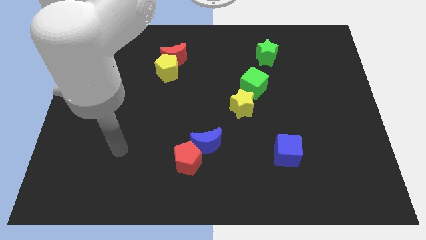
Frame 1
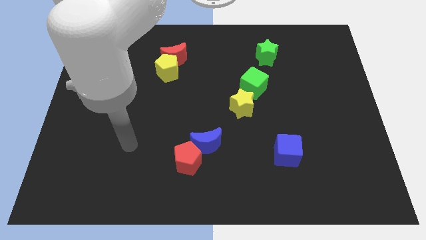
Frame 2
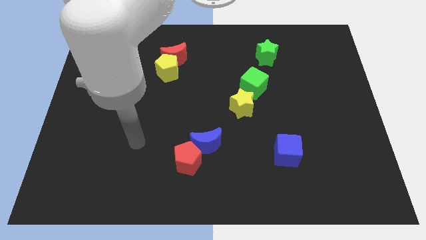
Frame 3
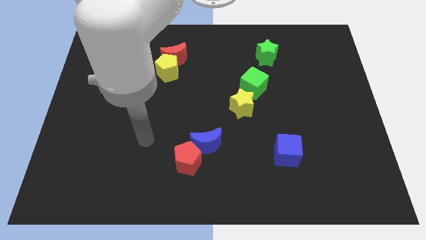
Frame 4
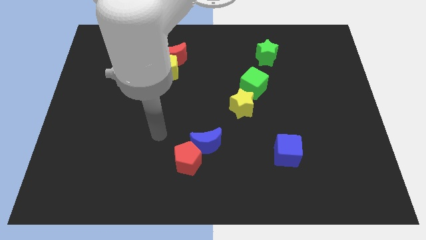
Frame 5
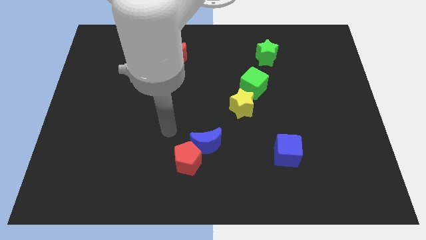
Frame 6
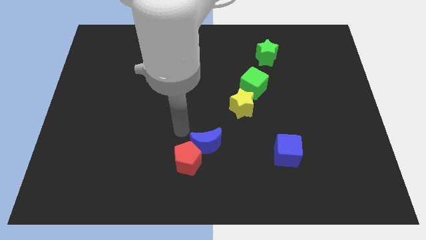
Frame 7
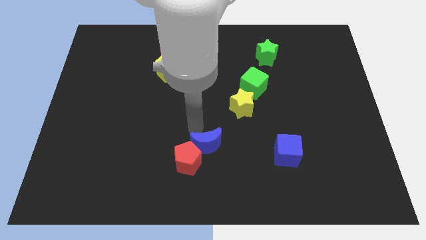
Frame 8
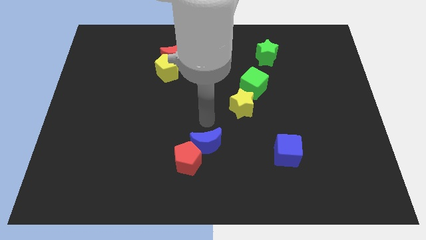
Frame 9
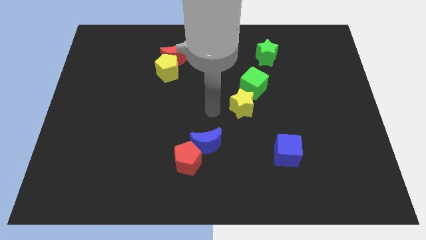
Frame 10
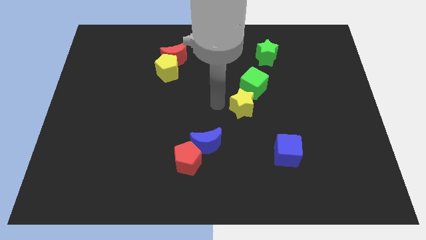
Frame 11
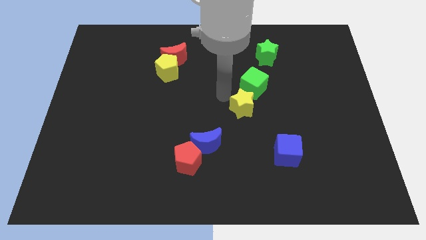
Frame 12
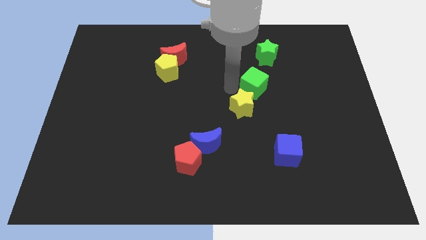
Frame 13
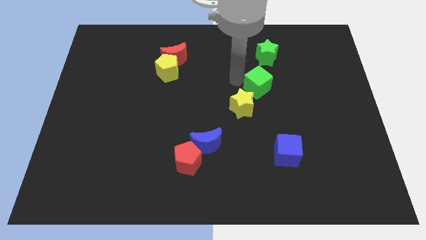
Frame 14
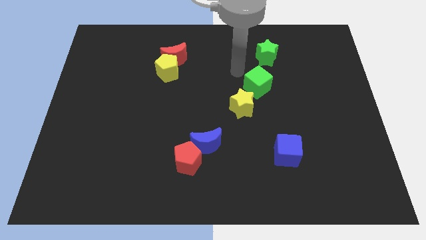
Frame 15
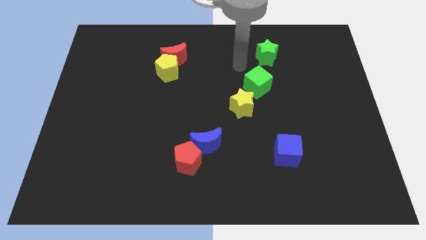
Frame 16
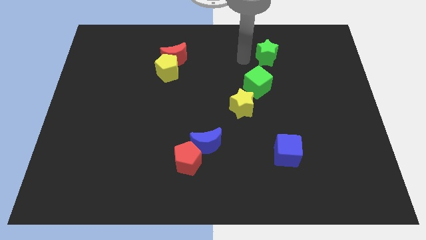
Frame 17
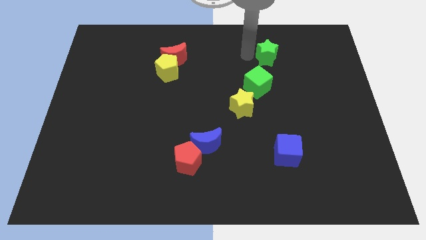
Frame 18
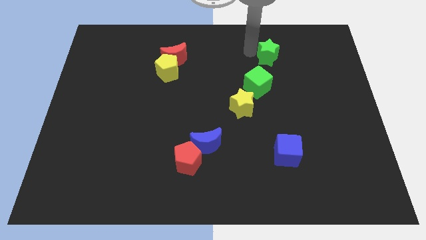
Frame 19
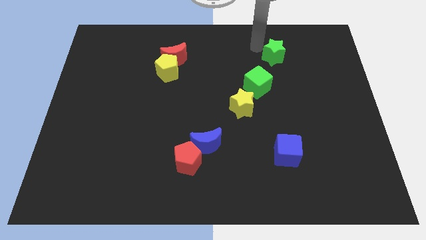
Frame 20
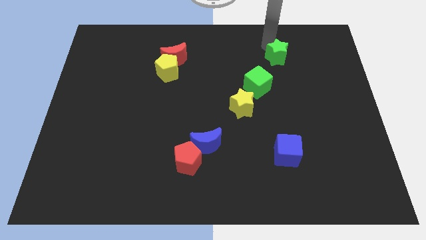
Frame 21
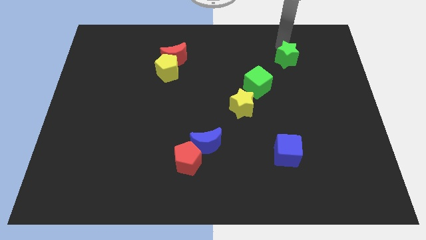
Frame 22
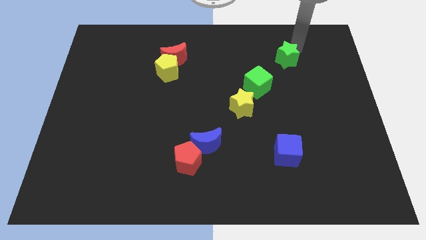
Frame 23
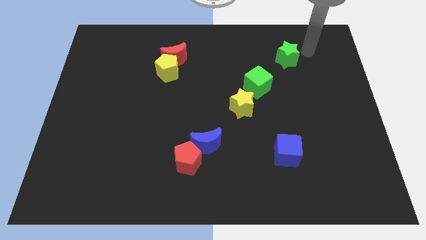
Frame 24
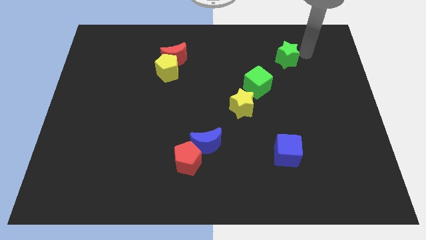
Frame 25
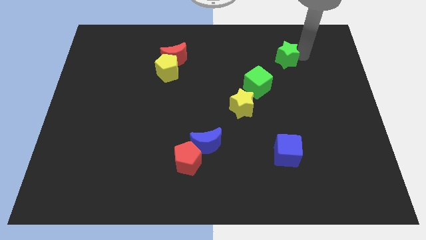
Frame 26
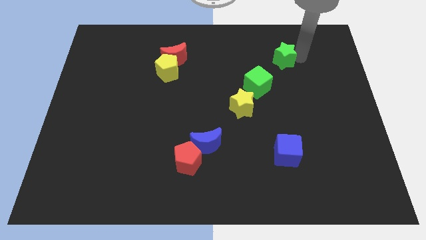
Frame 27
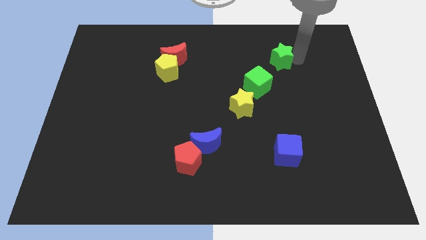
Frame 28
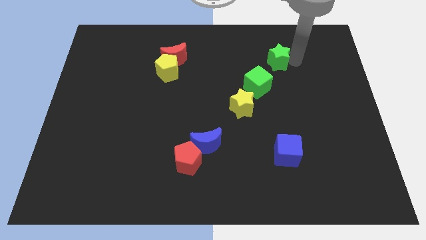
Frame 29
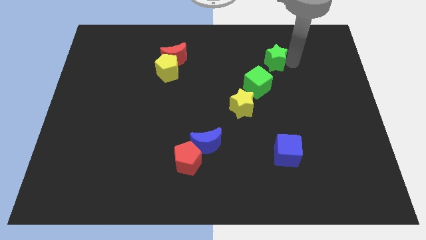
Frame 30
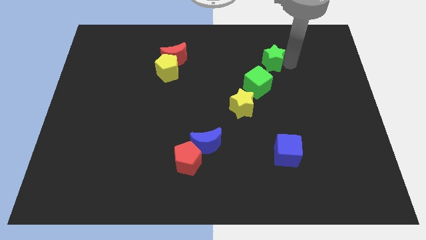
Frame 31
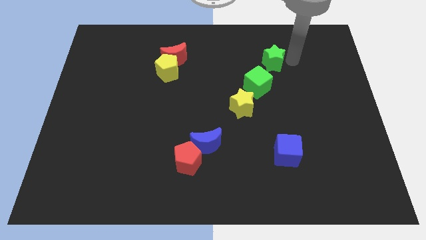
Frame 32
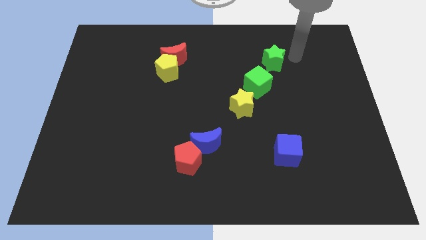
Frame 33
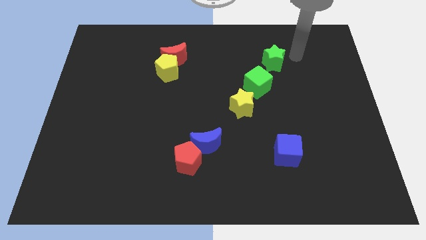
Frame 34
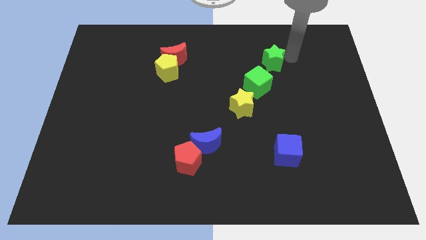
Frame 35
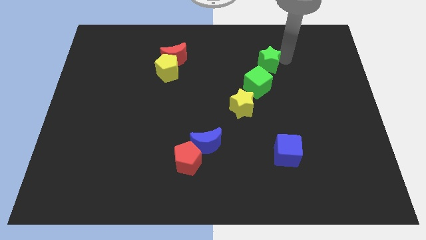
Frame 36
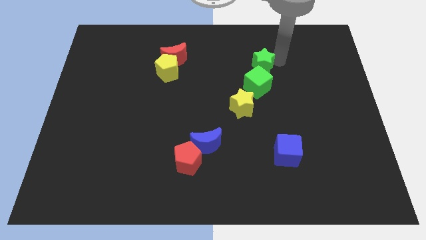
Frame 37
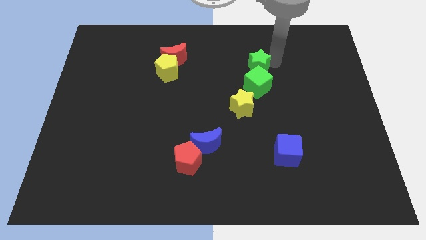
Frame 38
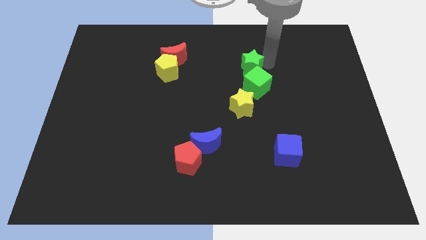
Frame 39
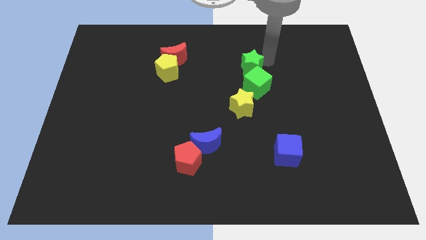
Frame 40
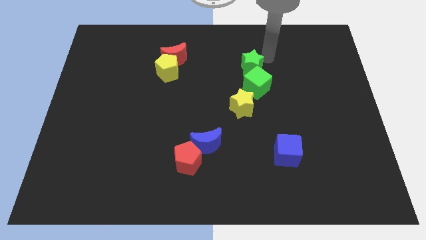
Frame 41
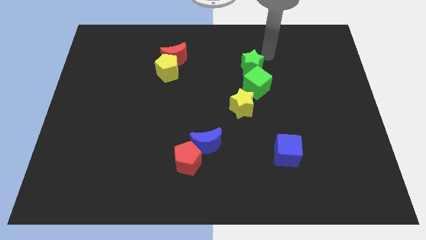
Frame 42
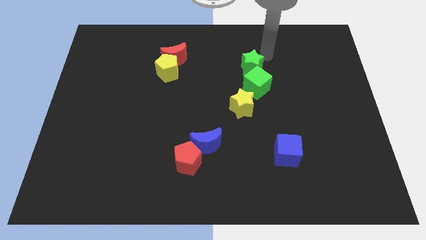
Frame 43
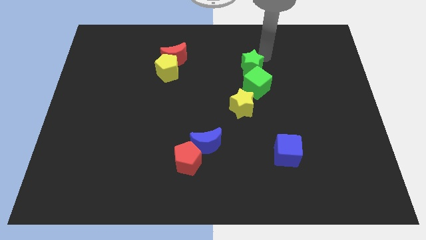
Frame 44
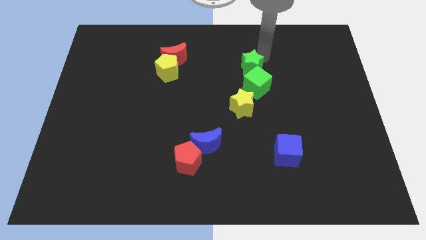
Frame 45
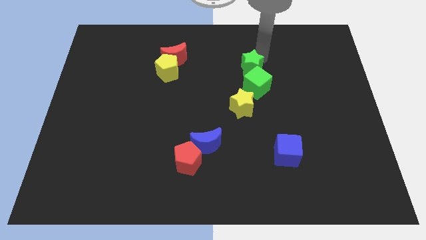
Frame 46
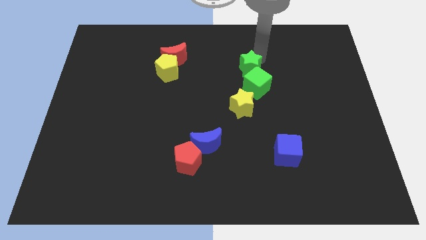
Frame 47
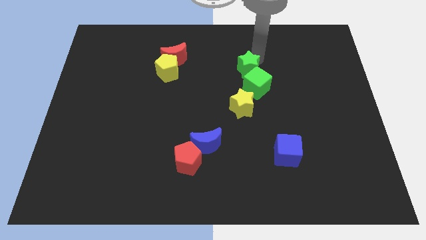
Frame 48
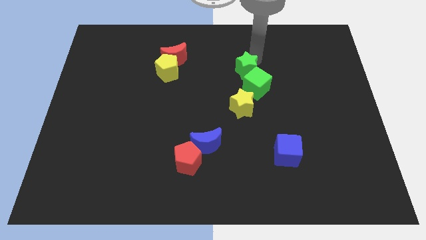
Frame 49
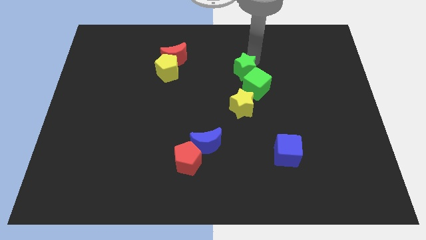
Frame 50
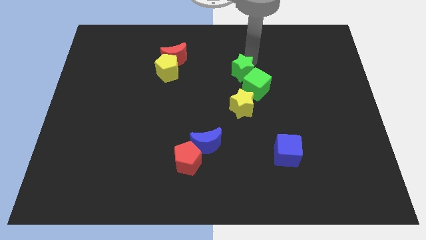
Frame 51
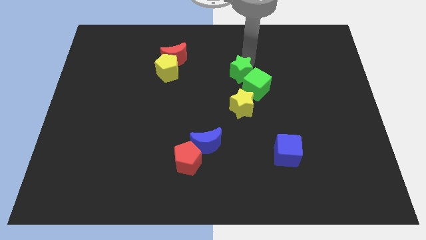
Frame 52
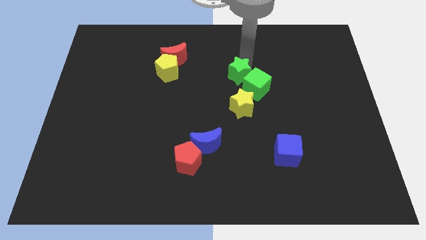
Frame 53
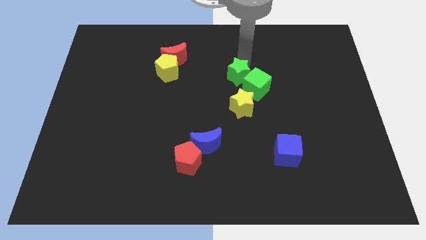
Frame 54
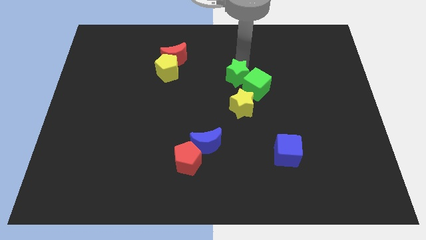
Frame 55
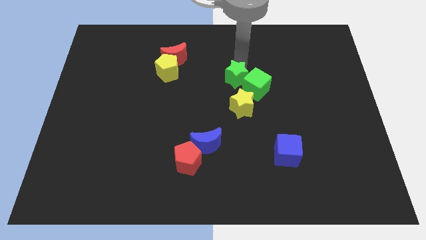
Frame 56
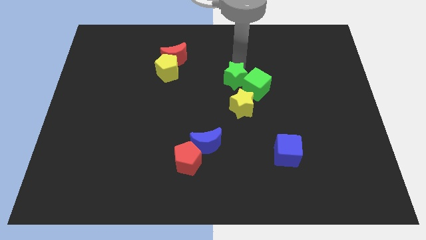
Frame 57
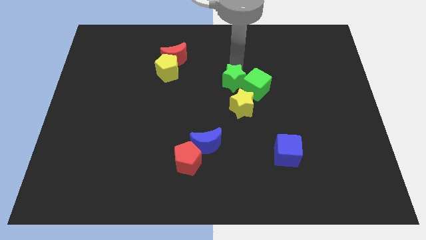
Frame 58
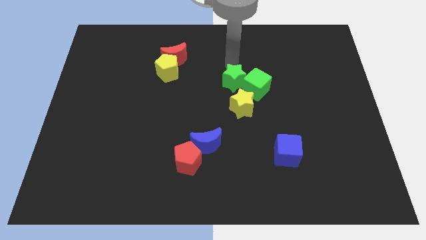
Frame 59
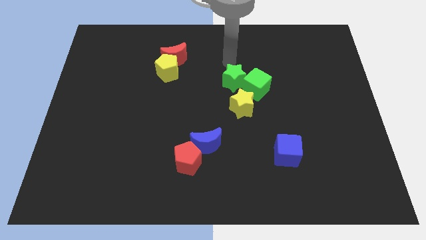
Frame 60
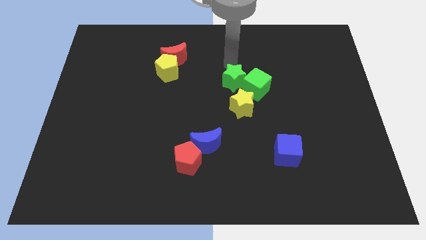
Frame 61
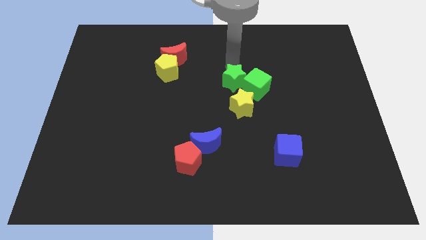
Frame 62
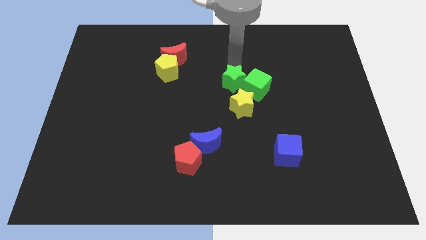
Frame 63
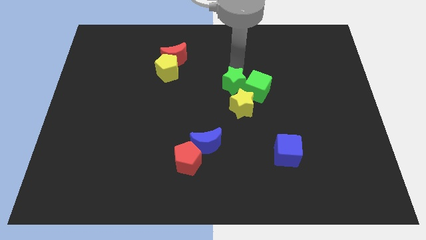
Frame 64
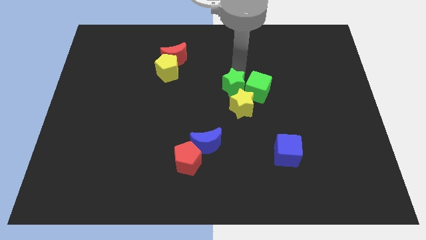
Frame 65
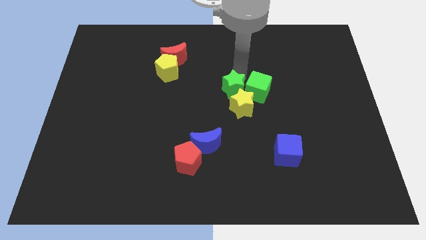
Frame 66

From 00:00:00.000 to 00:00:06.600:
push the green star close to the yellow star

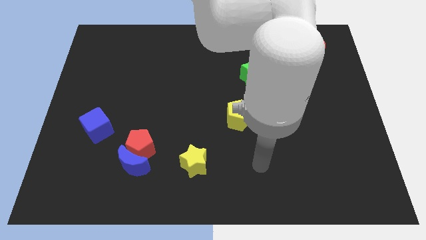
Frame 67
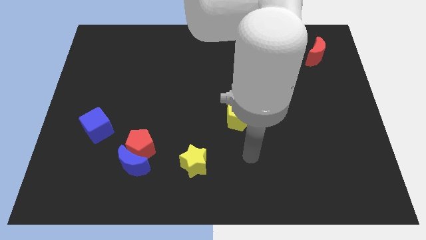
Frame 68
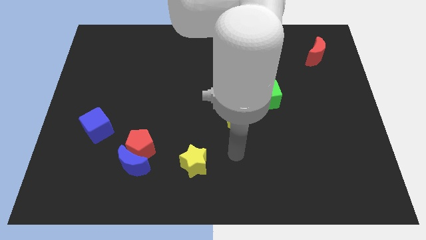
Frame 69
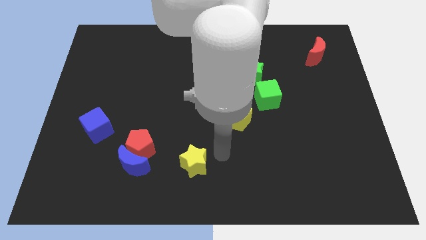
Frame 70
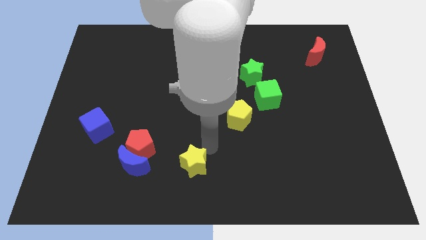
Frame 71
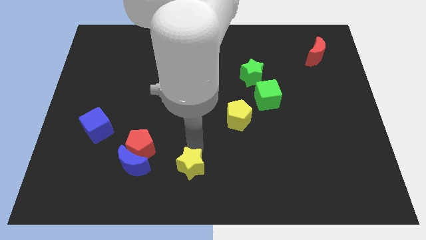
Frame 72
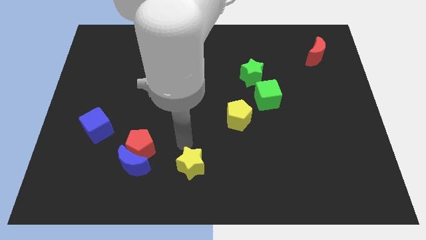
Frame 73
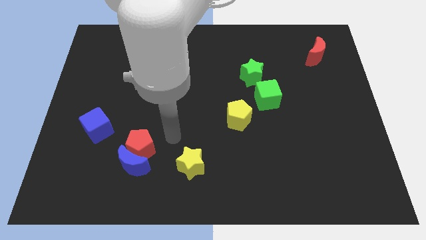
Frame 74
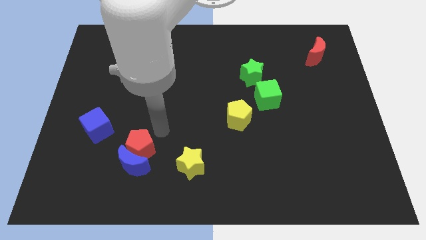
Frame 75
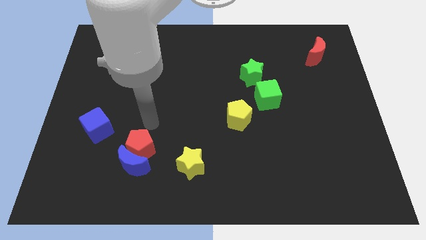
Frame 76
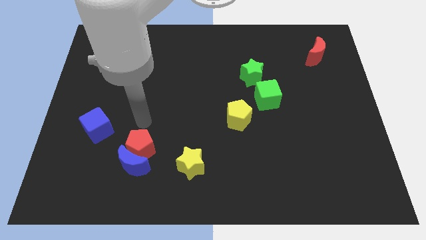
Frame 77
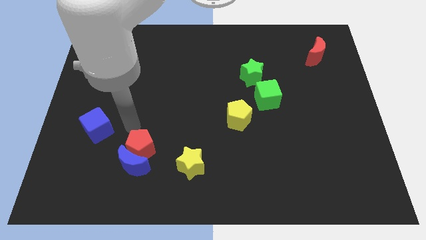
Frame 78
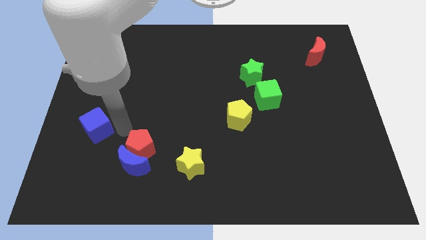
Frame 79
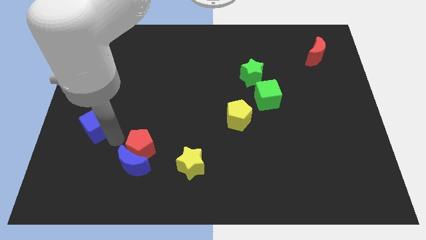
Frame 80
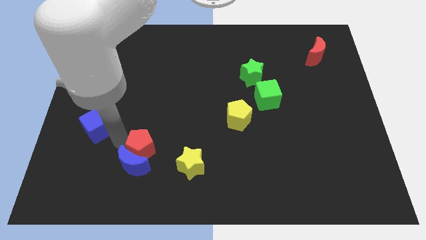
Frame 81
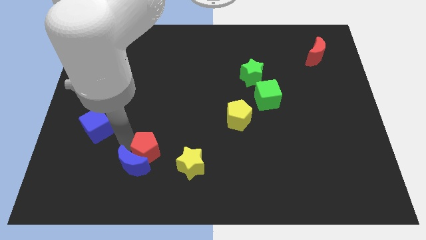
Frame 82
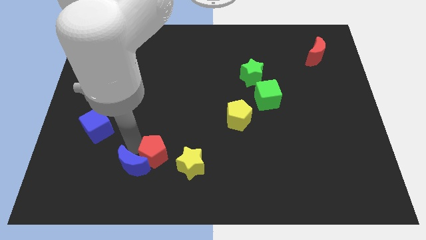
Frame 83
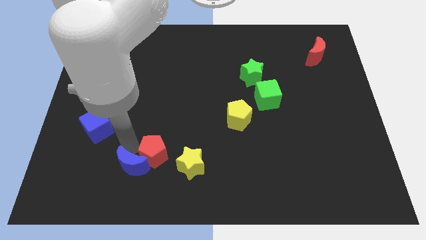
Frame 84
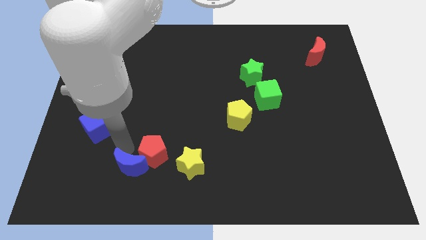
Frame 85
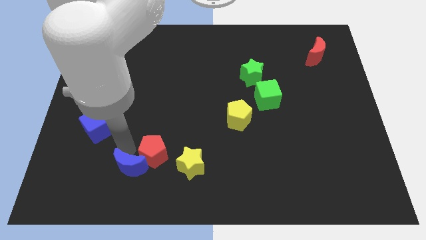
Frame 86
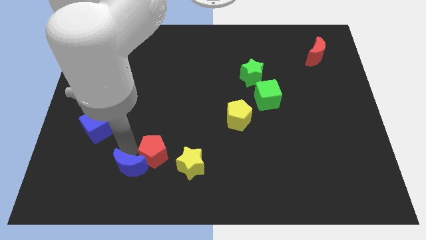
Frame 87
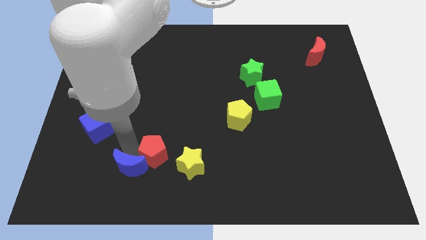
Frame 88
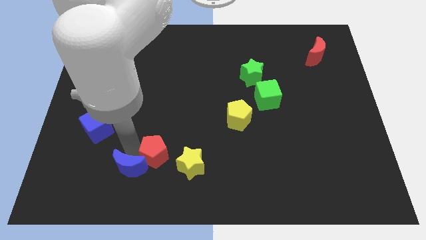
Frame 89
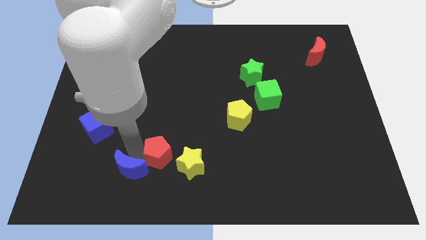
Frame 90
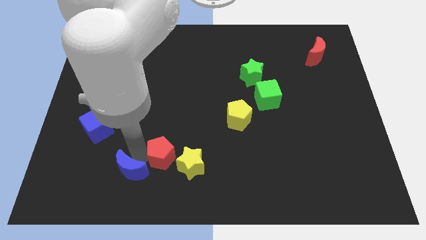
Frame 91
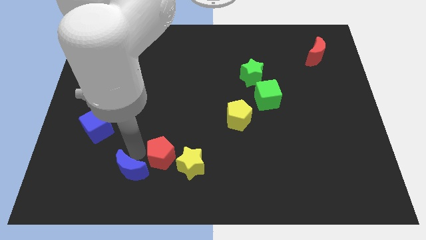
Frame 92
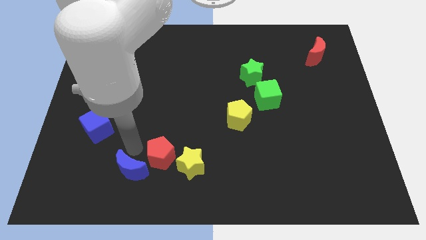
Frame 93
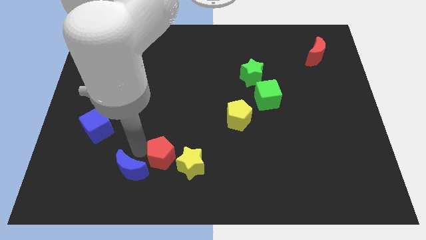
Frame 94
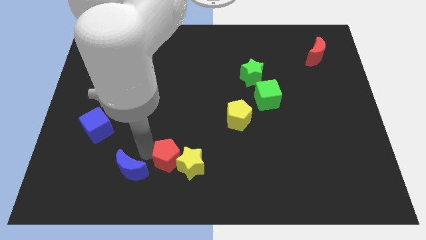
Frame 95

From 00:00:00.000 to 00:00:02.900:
push the red pentagon close to the yellow star
